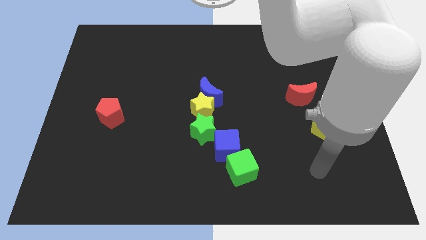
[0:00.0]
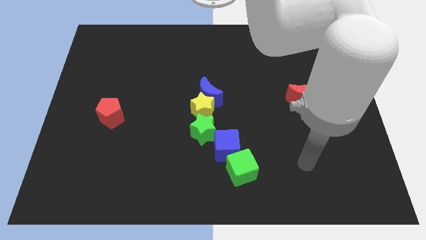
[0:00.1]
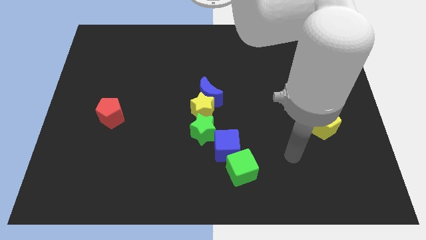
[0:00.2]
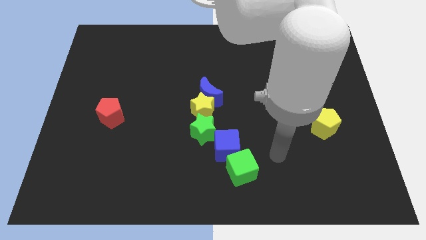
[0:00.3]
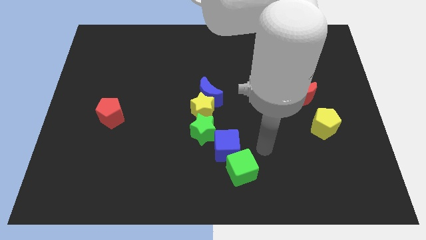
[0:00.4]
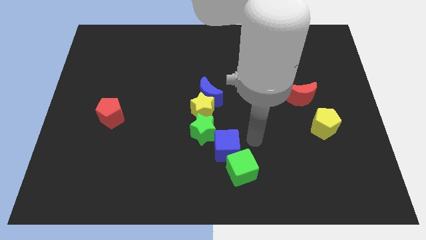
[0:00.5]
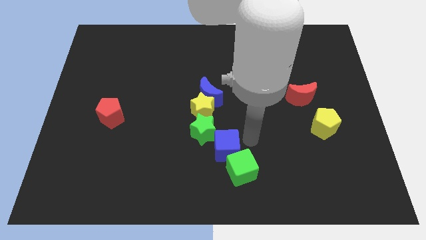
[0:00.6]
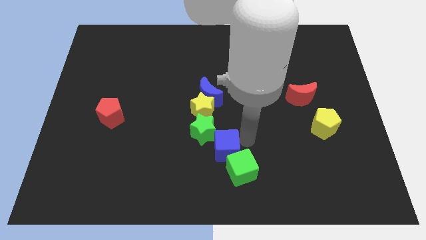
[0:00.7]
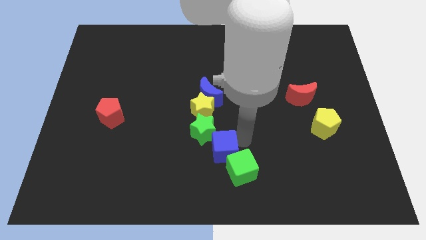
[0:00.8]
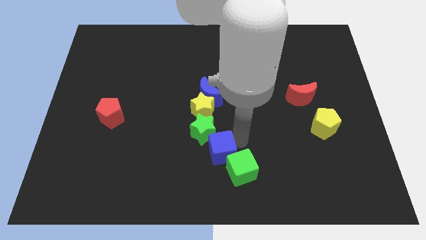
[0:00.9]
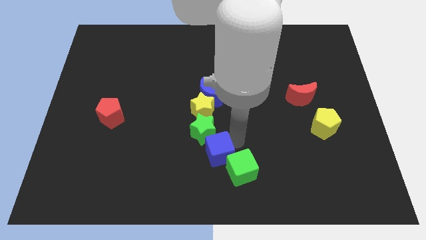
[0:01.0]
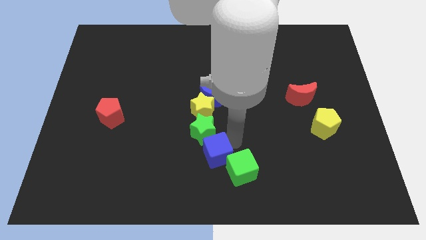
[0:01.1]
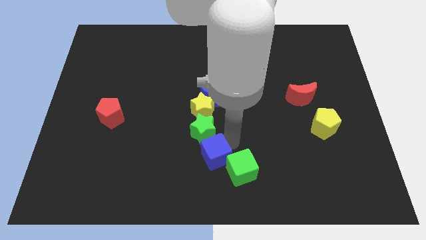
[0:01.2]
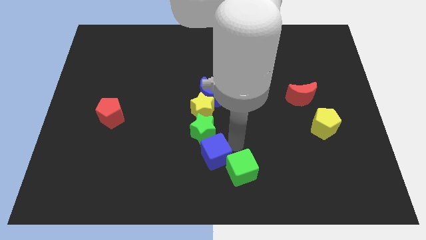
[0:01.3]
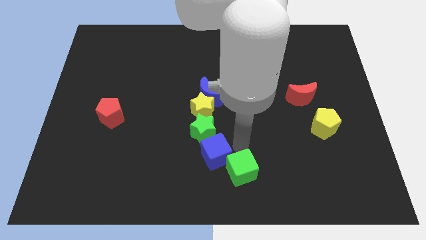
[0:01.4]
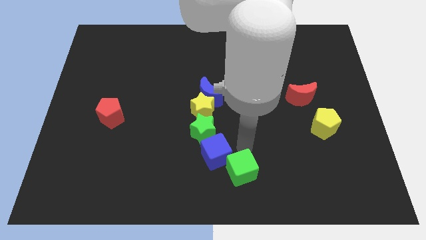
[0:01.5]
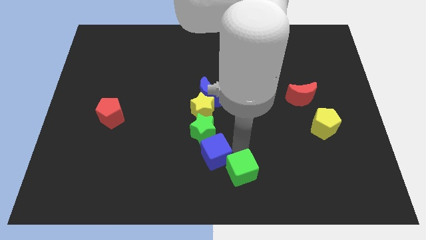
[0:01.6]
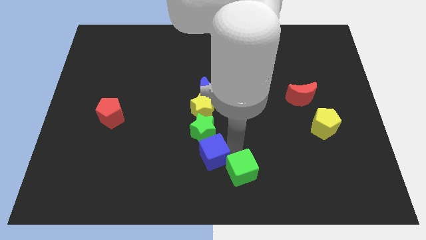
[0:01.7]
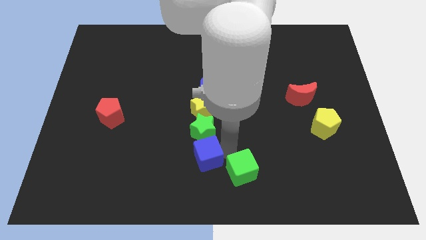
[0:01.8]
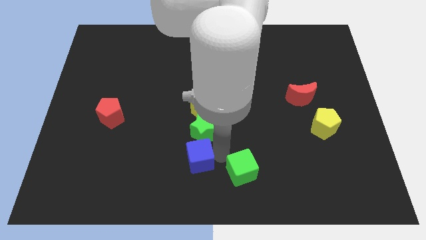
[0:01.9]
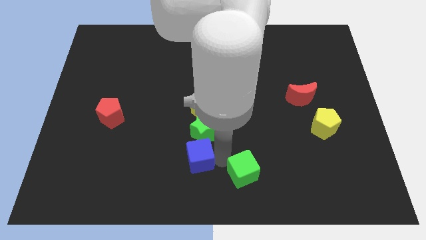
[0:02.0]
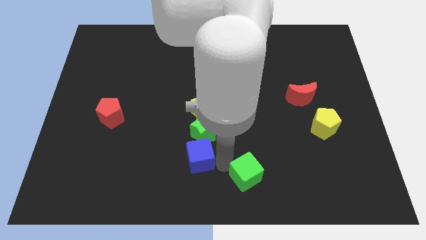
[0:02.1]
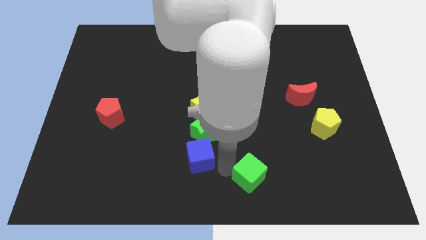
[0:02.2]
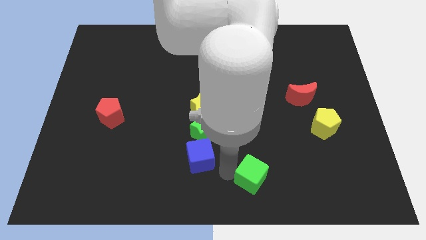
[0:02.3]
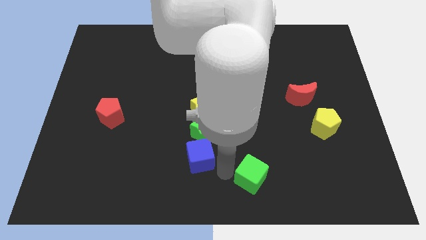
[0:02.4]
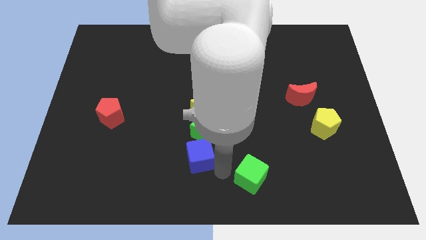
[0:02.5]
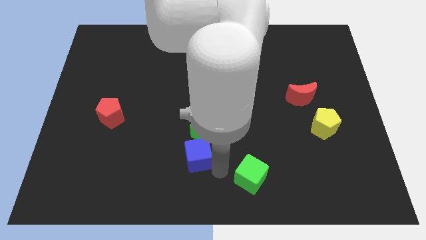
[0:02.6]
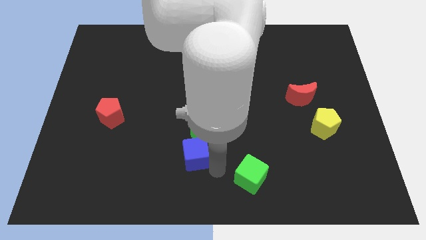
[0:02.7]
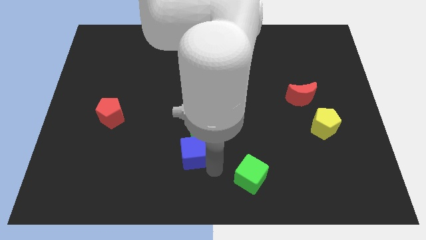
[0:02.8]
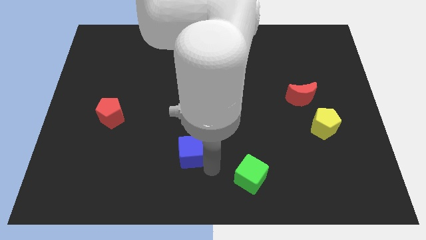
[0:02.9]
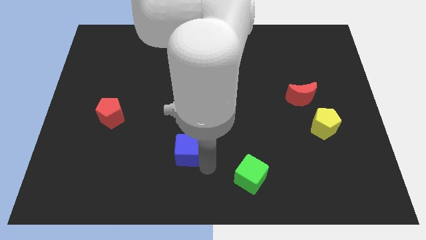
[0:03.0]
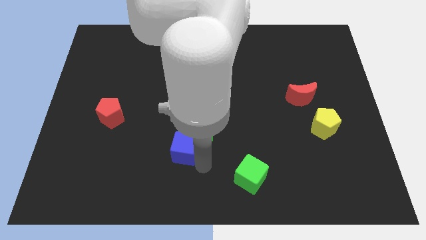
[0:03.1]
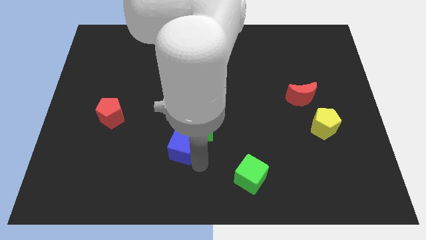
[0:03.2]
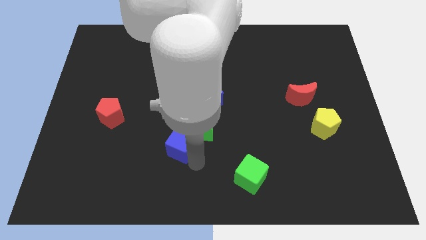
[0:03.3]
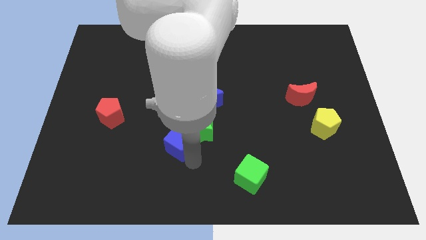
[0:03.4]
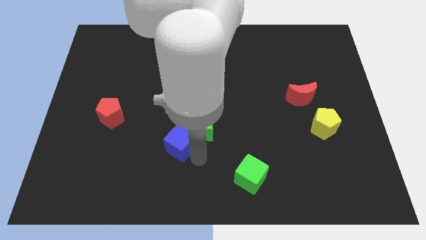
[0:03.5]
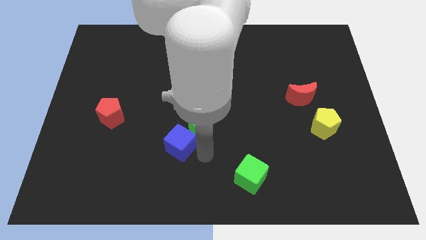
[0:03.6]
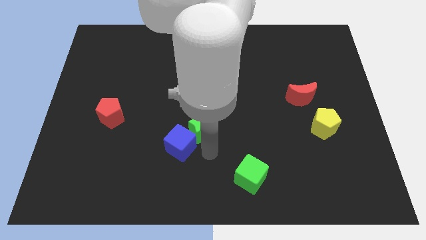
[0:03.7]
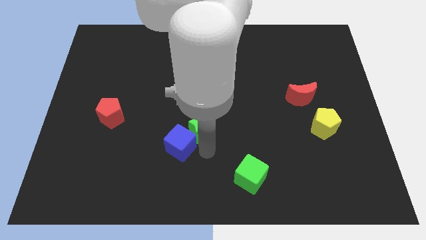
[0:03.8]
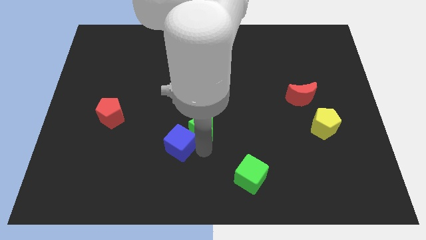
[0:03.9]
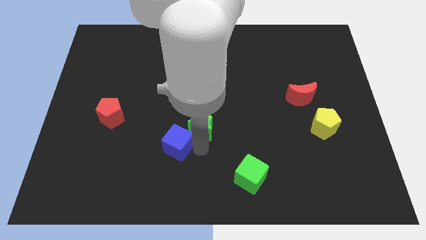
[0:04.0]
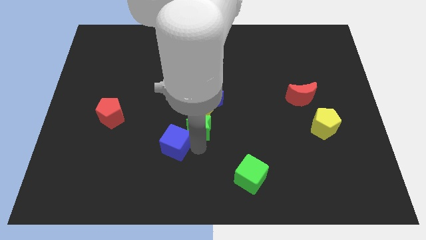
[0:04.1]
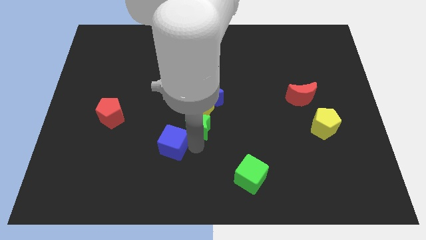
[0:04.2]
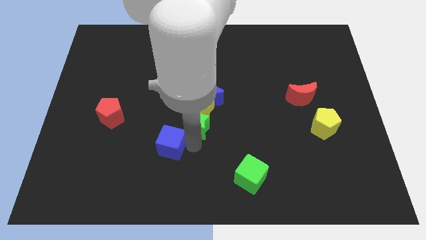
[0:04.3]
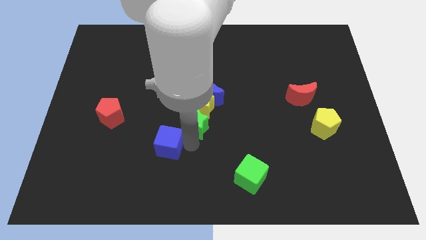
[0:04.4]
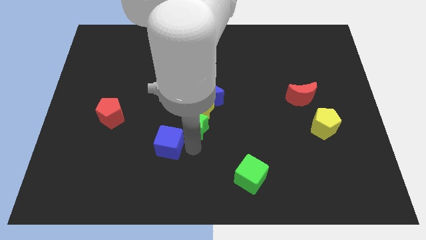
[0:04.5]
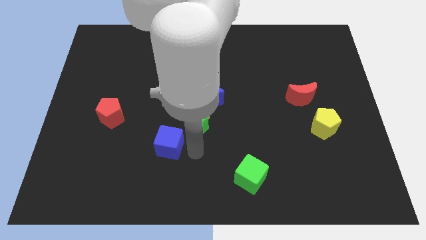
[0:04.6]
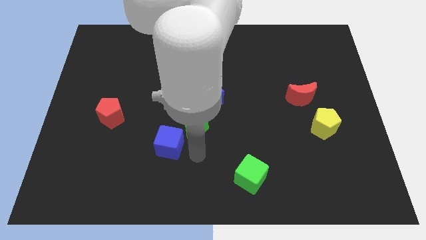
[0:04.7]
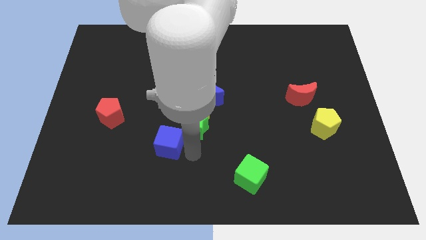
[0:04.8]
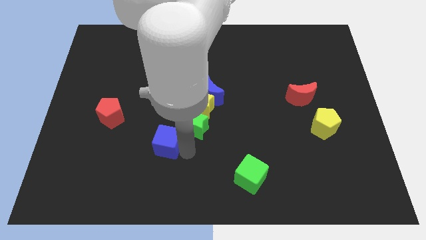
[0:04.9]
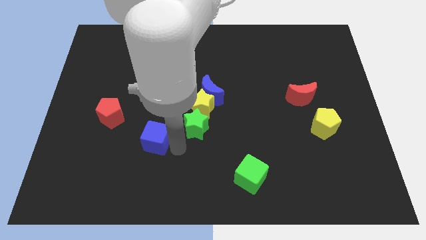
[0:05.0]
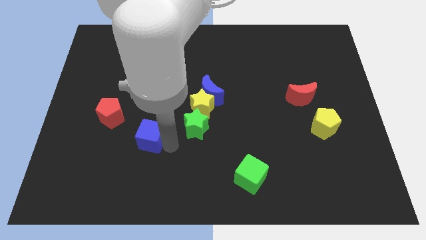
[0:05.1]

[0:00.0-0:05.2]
push the blue cube to the bottom right side of the red pentagon

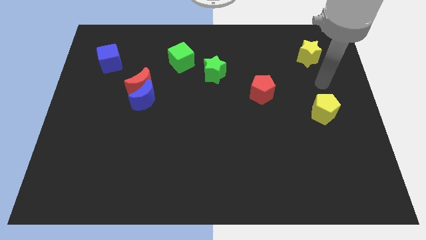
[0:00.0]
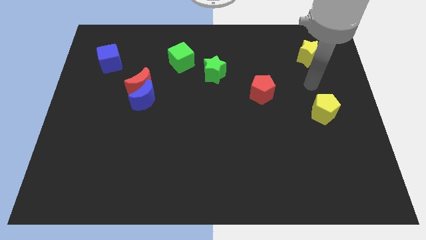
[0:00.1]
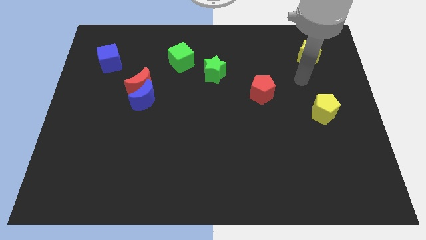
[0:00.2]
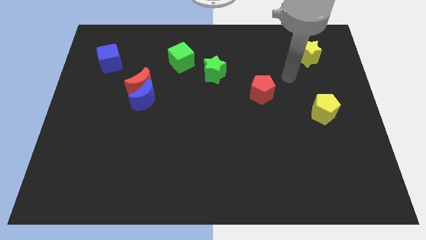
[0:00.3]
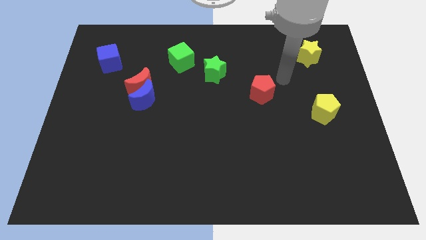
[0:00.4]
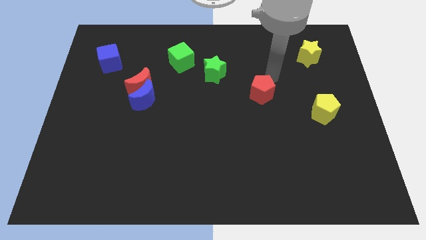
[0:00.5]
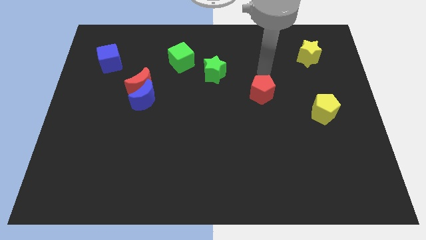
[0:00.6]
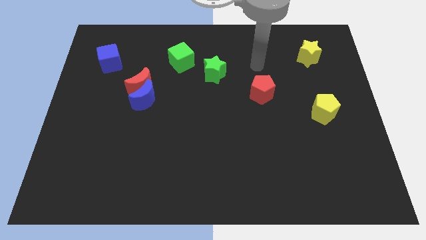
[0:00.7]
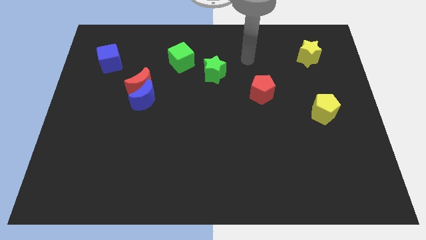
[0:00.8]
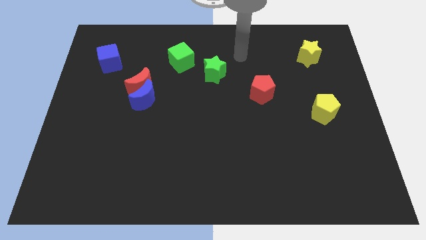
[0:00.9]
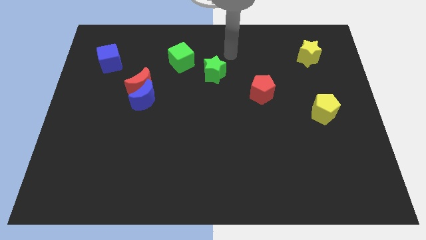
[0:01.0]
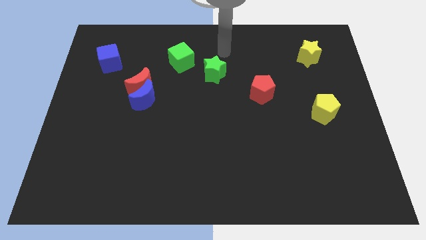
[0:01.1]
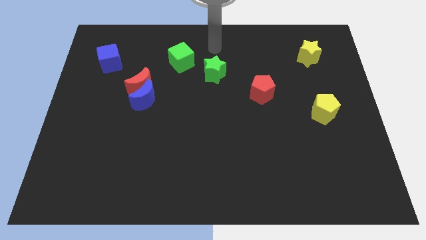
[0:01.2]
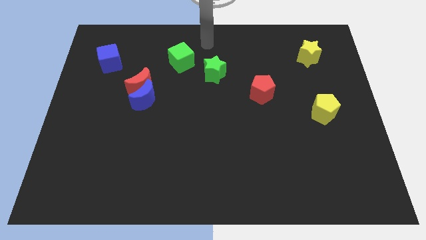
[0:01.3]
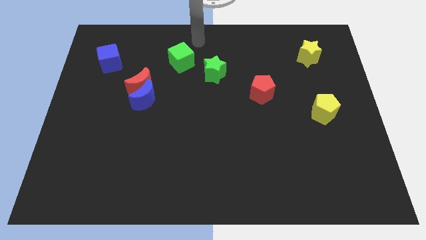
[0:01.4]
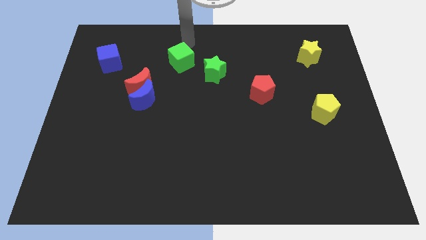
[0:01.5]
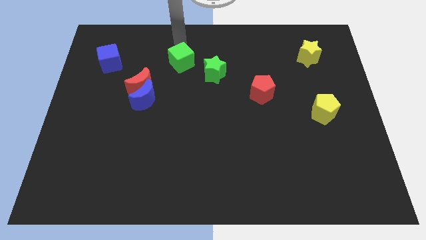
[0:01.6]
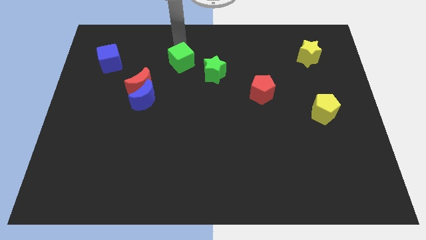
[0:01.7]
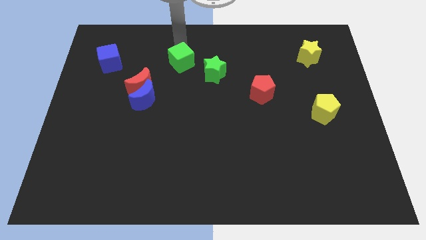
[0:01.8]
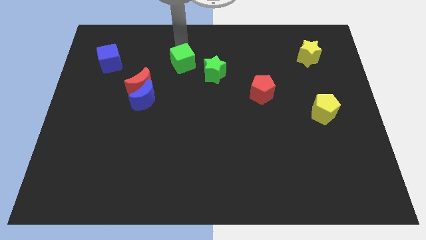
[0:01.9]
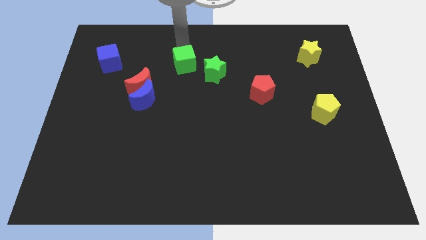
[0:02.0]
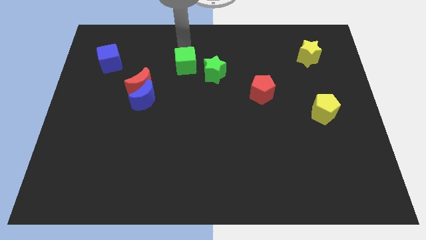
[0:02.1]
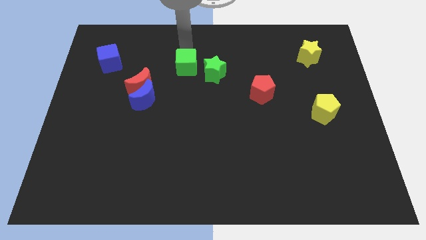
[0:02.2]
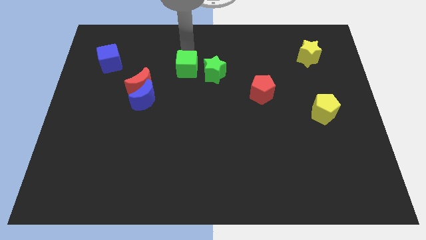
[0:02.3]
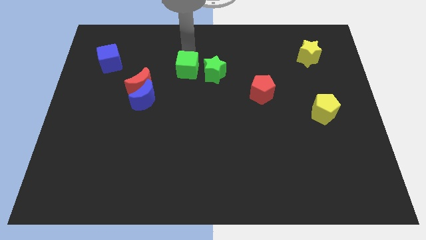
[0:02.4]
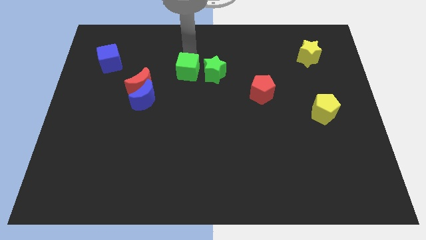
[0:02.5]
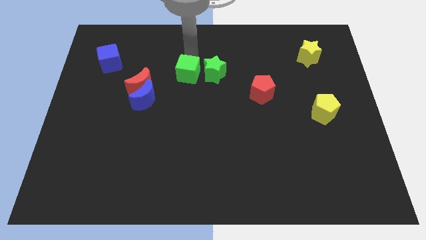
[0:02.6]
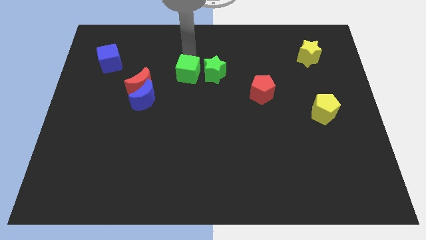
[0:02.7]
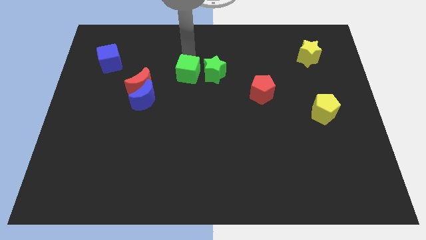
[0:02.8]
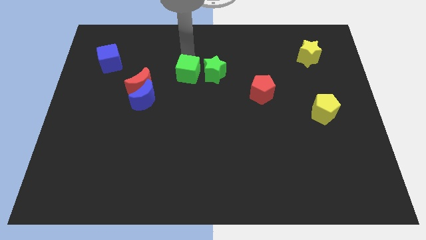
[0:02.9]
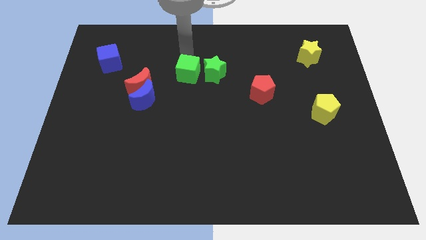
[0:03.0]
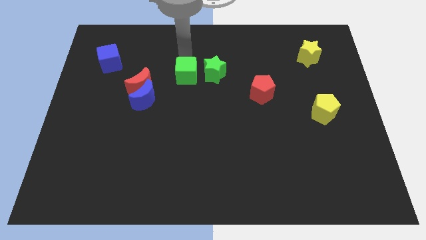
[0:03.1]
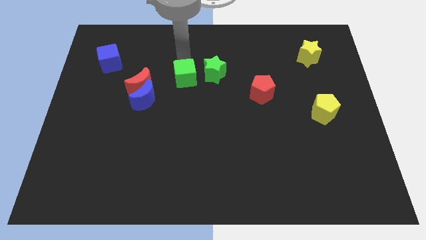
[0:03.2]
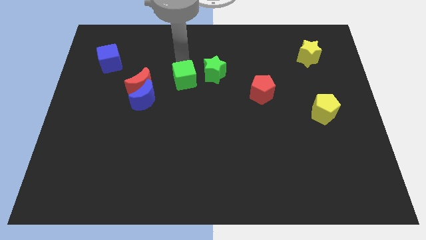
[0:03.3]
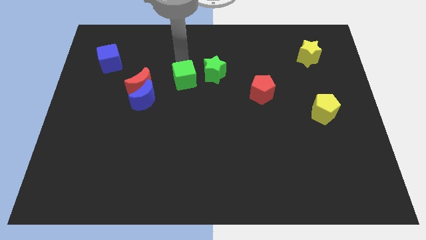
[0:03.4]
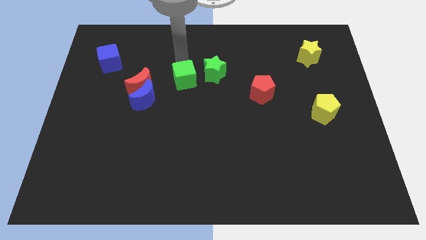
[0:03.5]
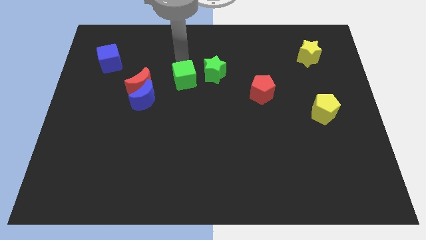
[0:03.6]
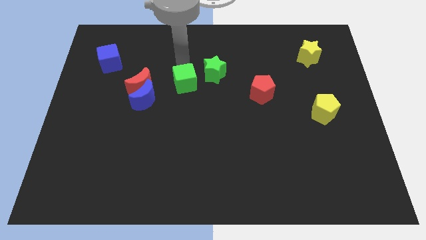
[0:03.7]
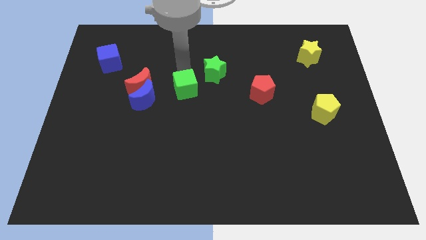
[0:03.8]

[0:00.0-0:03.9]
move the green cube to the right side of the blue moon
